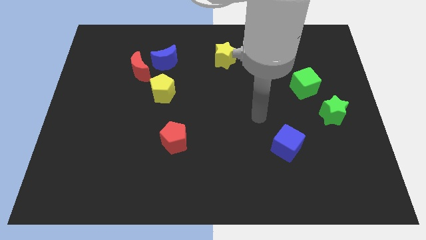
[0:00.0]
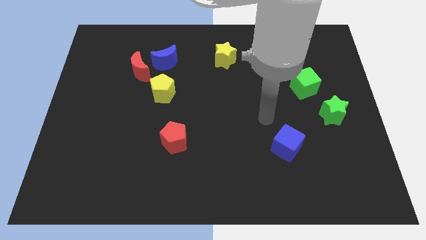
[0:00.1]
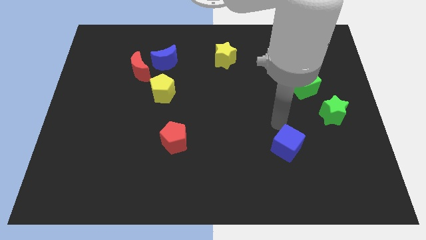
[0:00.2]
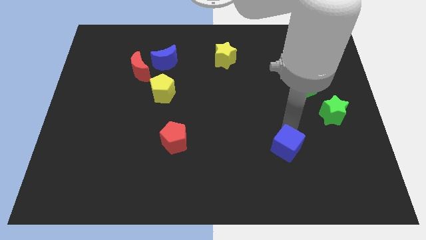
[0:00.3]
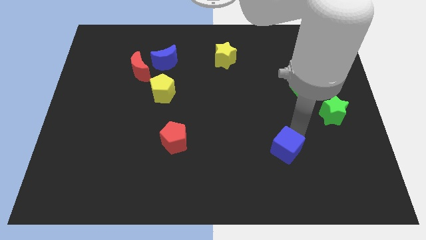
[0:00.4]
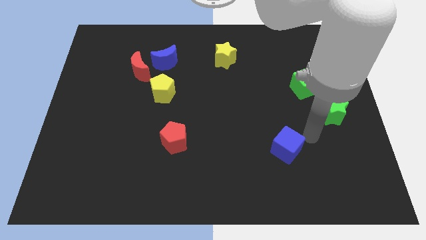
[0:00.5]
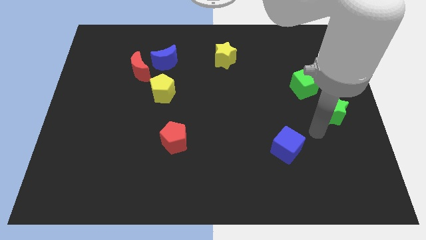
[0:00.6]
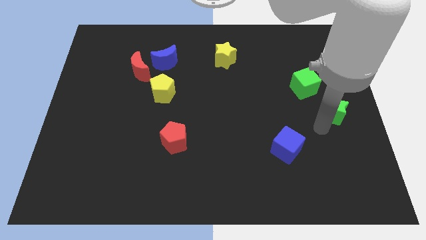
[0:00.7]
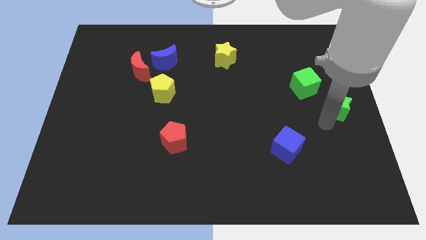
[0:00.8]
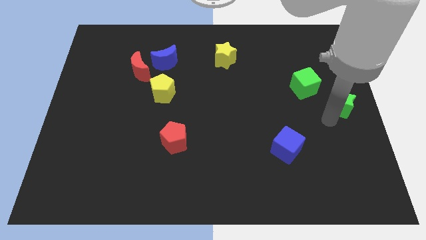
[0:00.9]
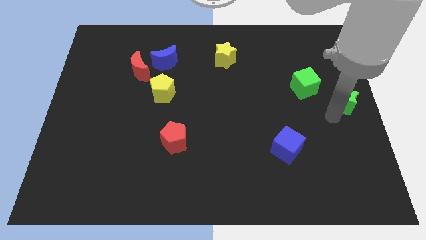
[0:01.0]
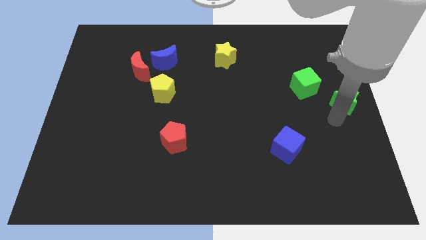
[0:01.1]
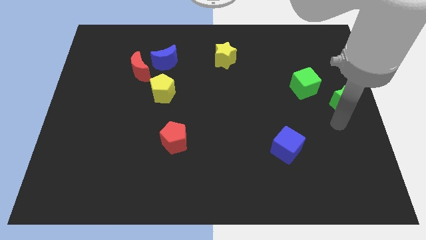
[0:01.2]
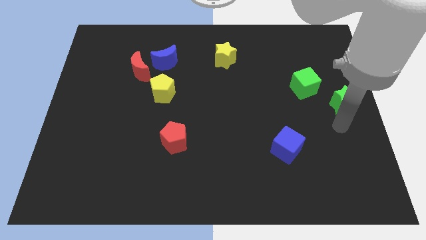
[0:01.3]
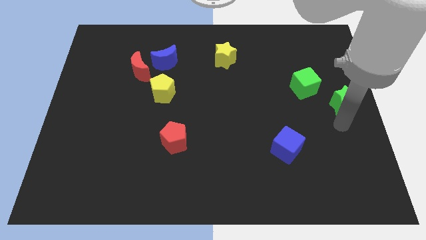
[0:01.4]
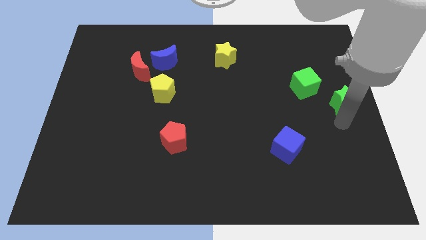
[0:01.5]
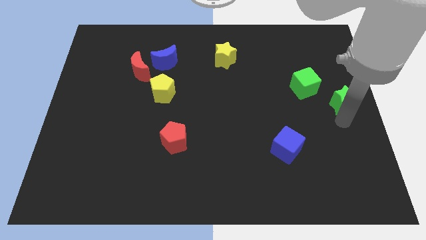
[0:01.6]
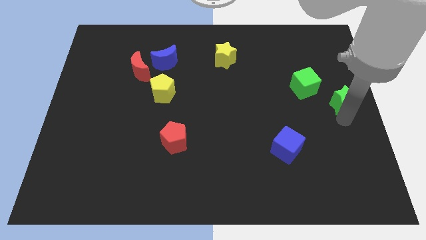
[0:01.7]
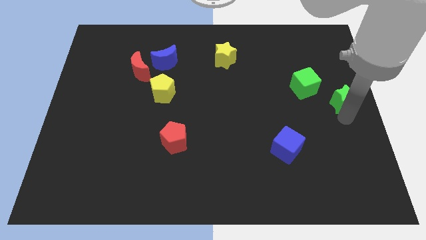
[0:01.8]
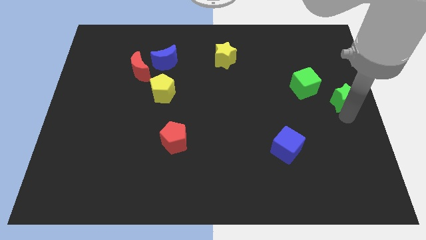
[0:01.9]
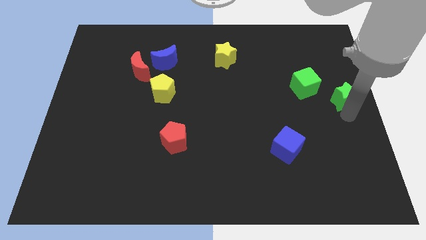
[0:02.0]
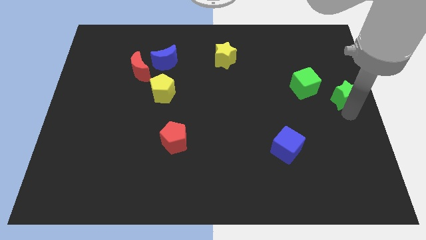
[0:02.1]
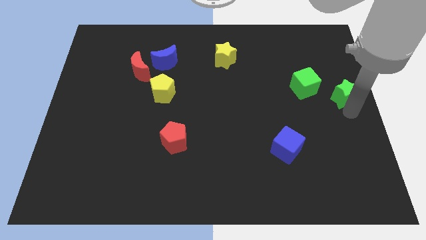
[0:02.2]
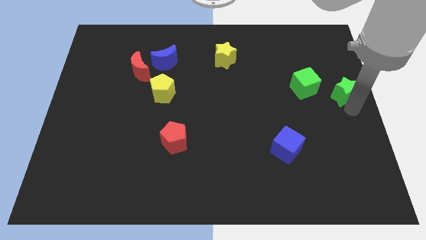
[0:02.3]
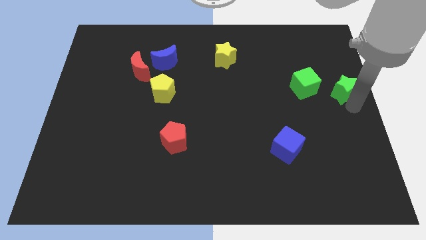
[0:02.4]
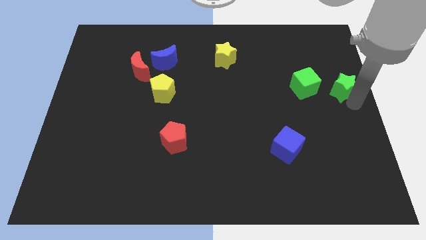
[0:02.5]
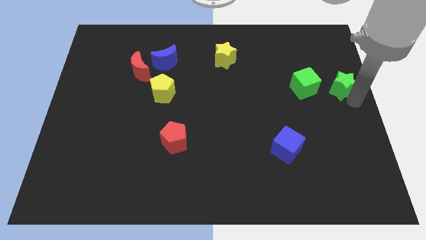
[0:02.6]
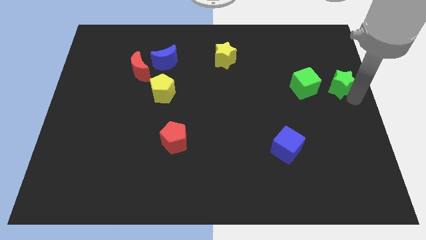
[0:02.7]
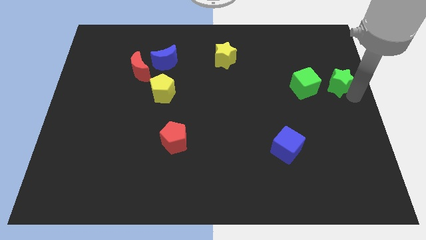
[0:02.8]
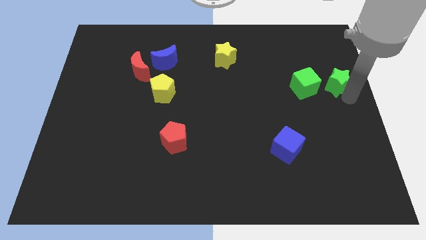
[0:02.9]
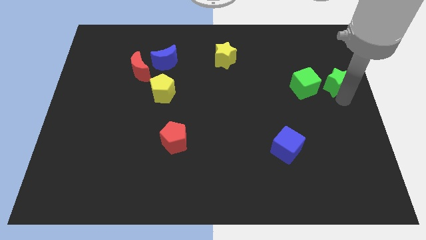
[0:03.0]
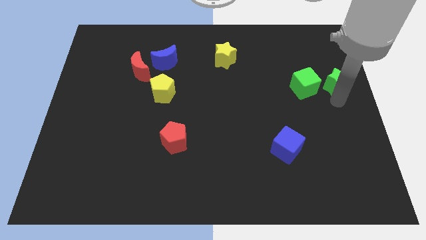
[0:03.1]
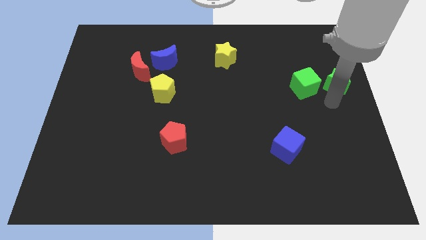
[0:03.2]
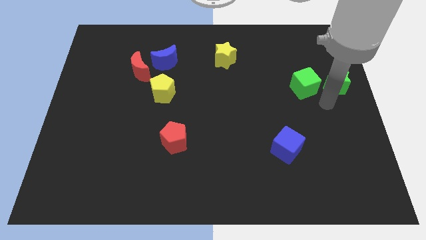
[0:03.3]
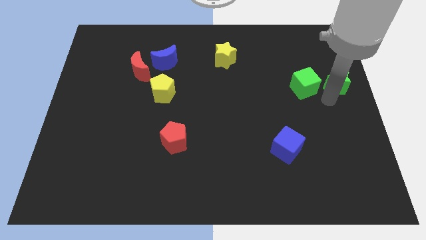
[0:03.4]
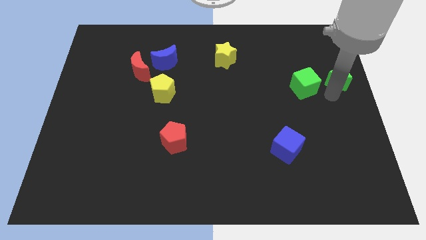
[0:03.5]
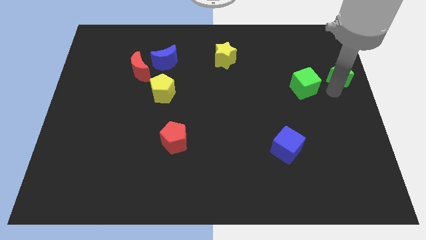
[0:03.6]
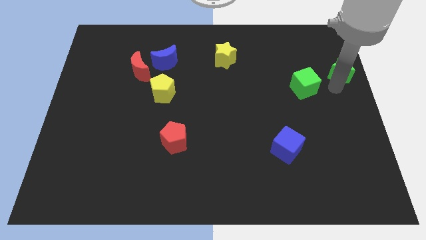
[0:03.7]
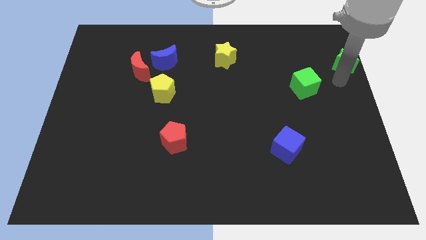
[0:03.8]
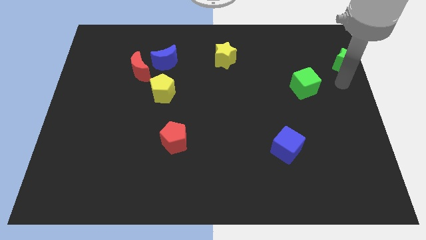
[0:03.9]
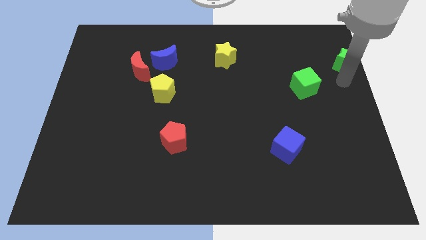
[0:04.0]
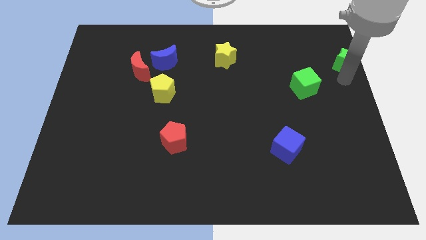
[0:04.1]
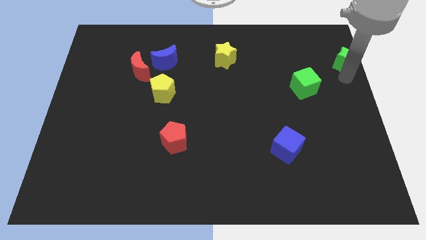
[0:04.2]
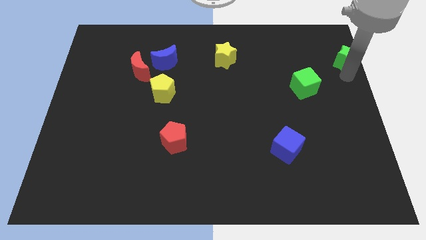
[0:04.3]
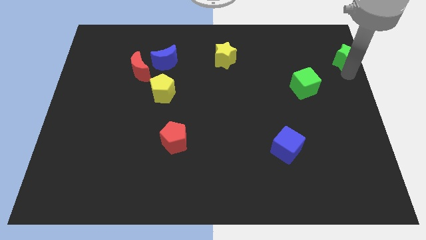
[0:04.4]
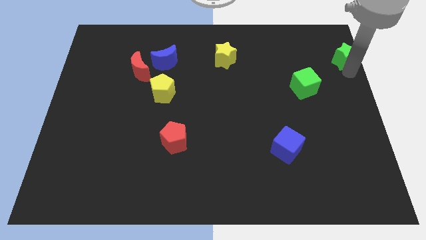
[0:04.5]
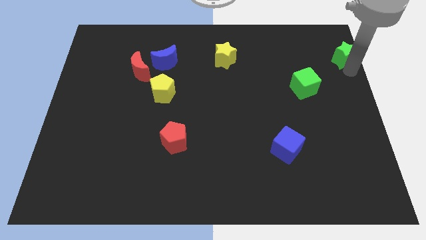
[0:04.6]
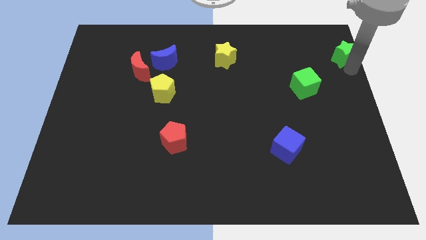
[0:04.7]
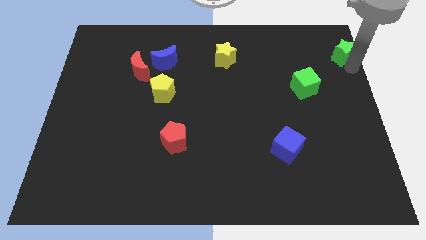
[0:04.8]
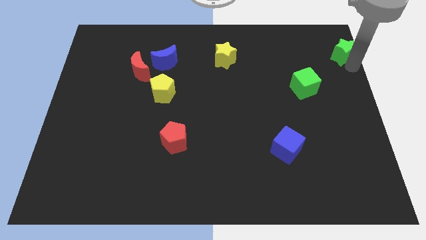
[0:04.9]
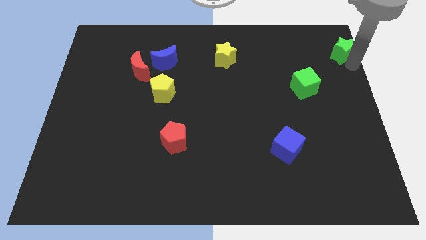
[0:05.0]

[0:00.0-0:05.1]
put the green star to the top right
